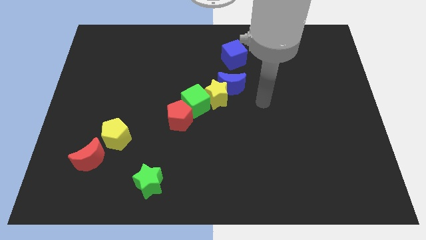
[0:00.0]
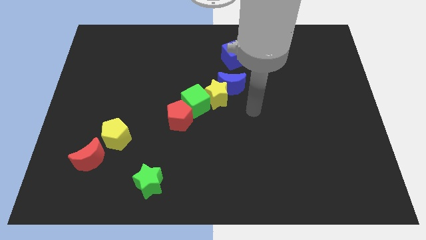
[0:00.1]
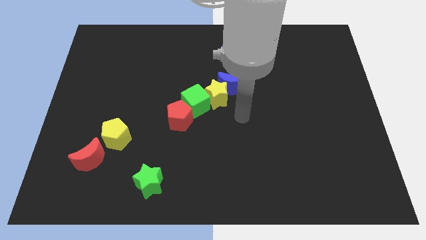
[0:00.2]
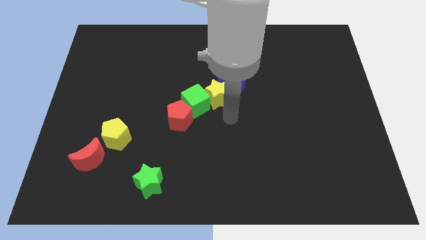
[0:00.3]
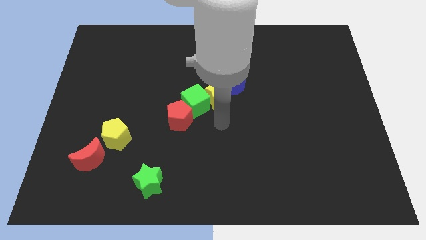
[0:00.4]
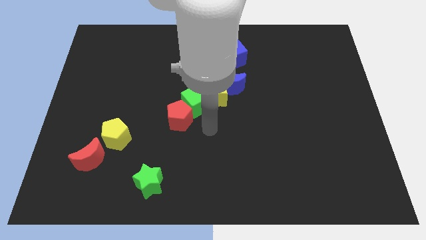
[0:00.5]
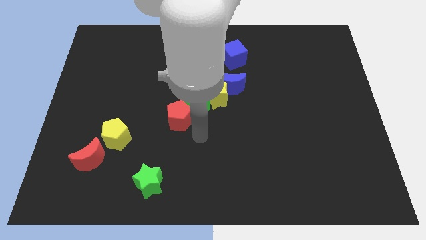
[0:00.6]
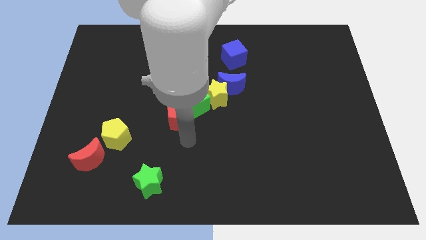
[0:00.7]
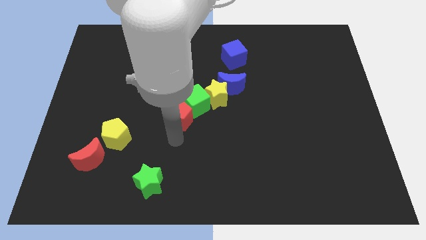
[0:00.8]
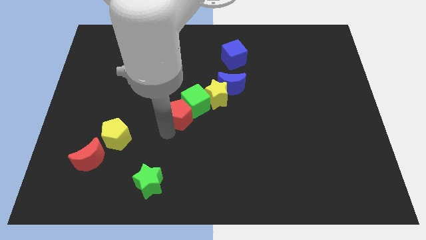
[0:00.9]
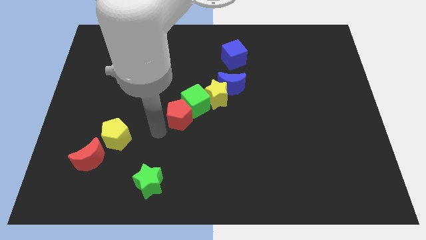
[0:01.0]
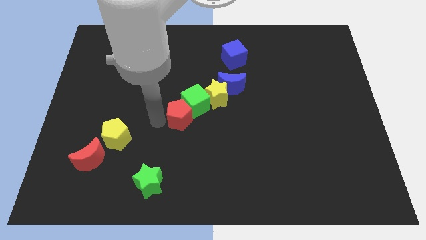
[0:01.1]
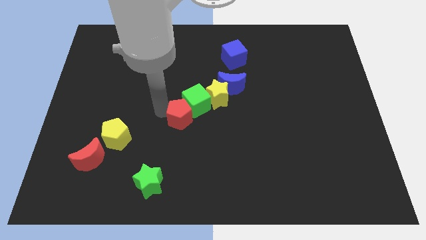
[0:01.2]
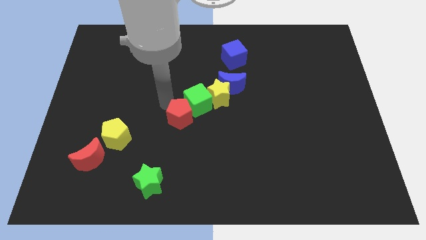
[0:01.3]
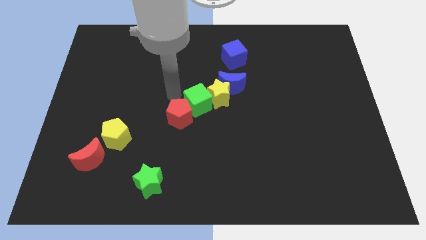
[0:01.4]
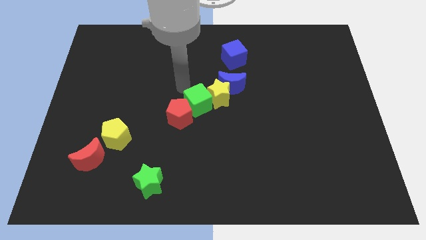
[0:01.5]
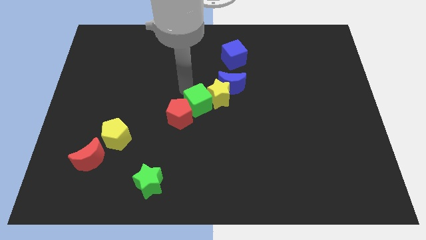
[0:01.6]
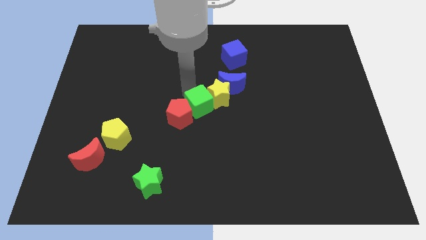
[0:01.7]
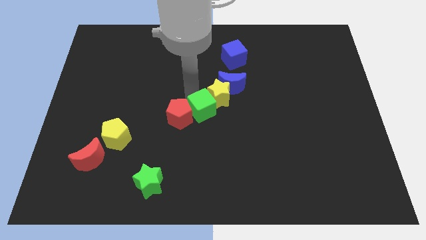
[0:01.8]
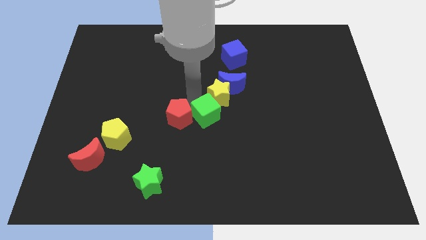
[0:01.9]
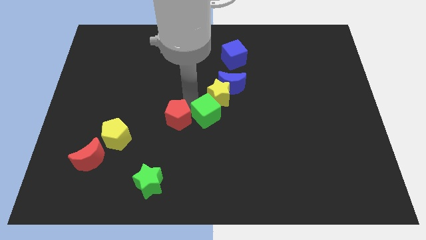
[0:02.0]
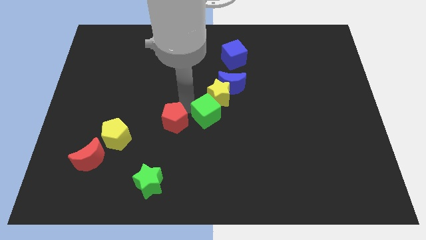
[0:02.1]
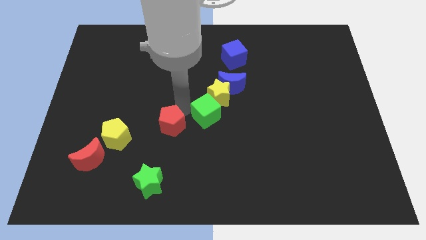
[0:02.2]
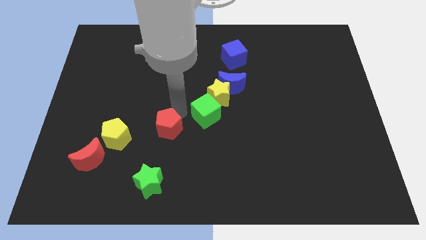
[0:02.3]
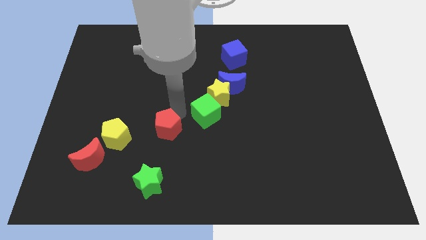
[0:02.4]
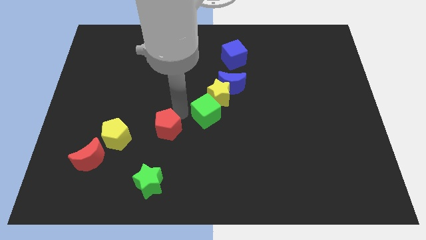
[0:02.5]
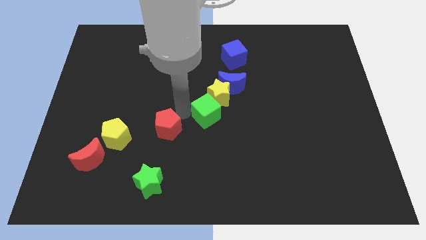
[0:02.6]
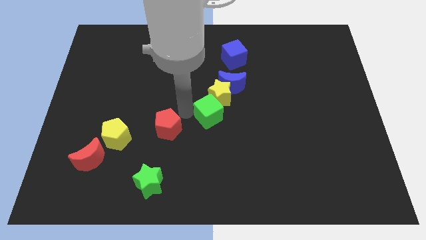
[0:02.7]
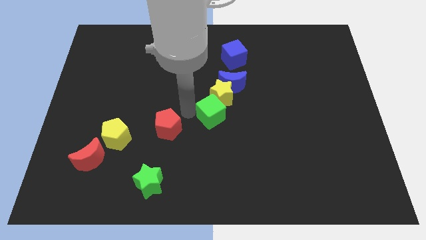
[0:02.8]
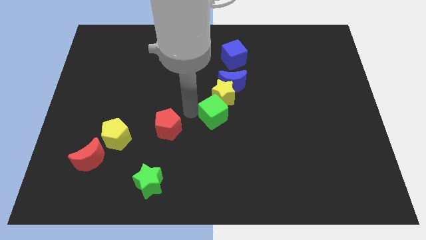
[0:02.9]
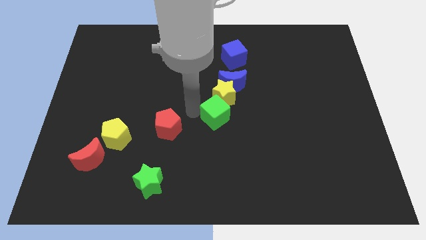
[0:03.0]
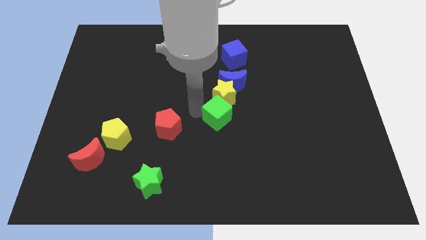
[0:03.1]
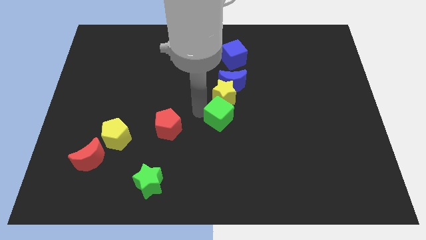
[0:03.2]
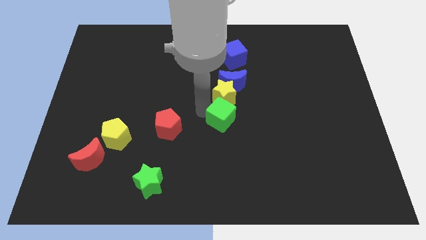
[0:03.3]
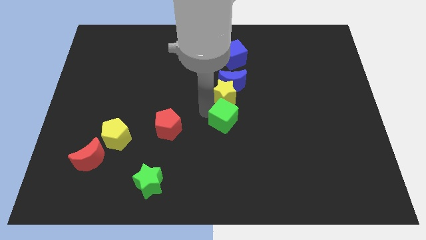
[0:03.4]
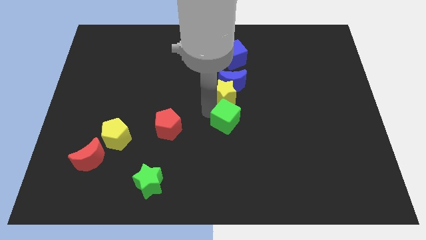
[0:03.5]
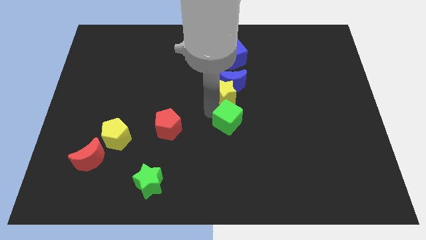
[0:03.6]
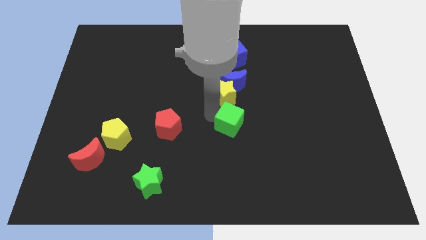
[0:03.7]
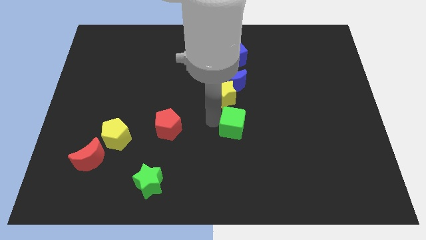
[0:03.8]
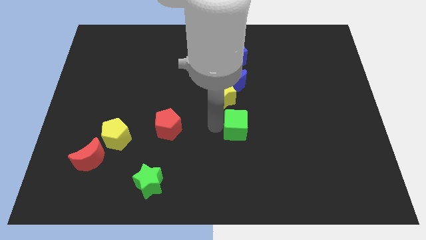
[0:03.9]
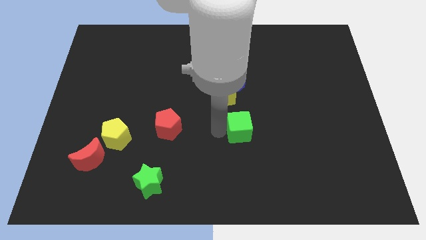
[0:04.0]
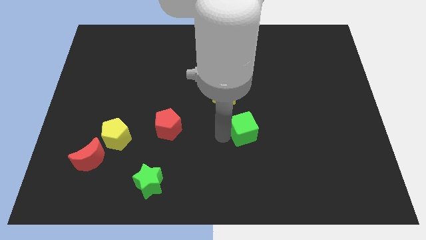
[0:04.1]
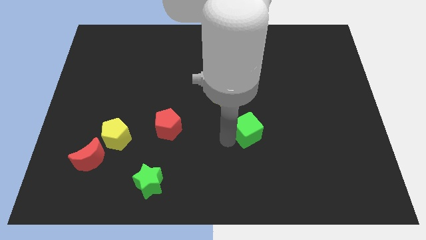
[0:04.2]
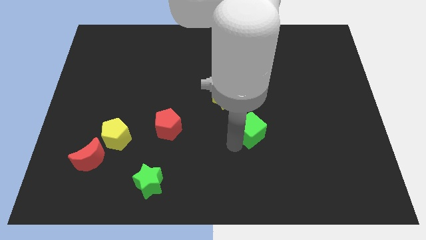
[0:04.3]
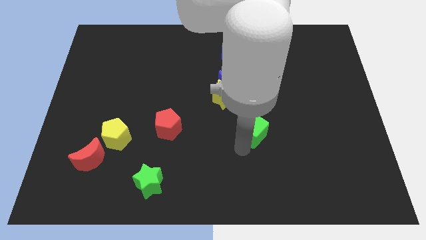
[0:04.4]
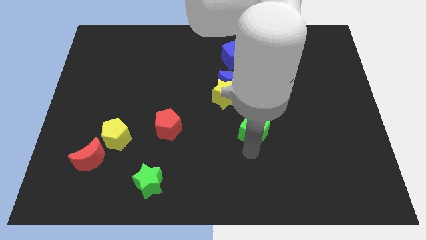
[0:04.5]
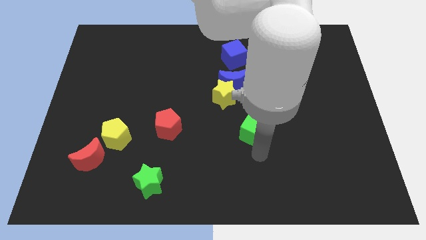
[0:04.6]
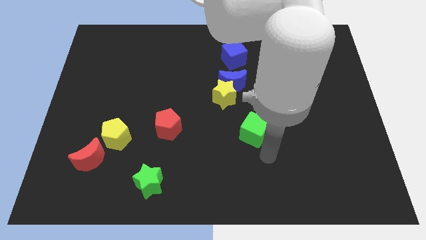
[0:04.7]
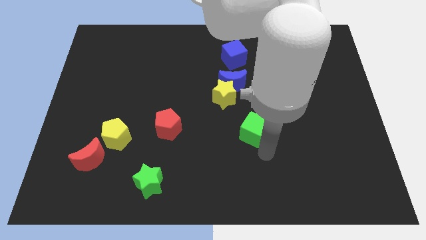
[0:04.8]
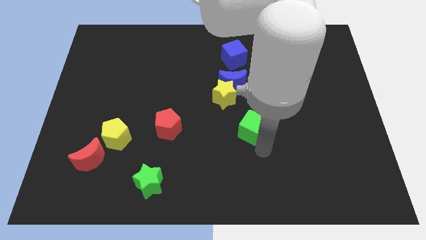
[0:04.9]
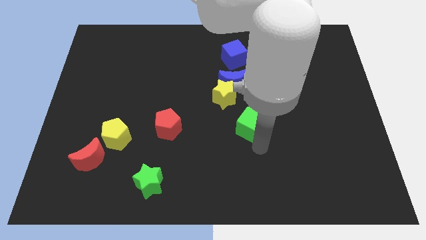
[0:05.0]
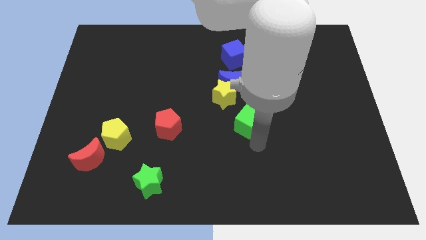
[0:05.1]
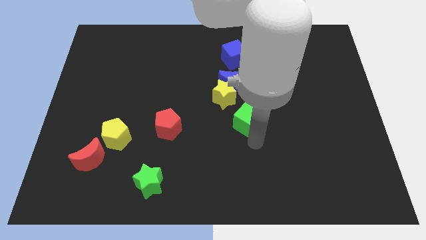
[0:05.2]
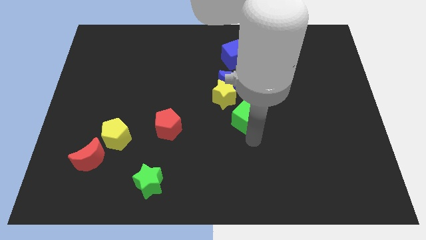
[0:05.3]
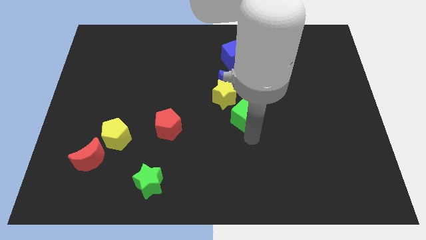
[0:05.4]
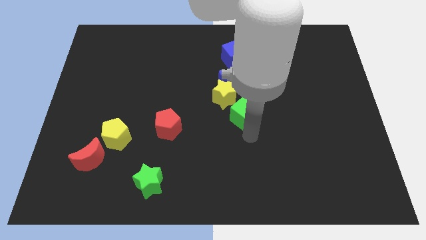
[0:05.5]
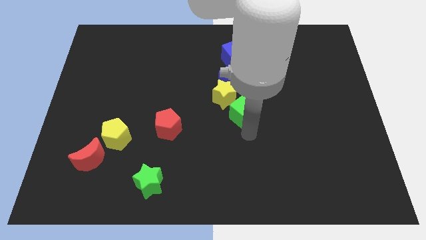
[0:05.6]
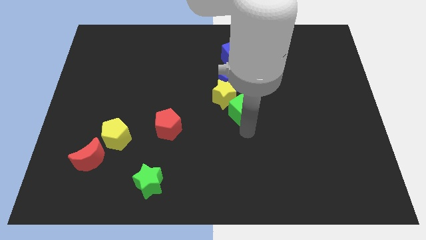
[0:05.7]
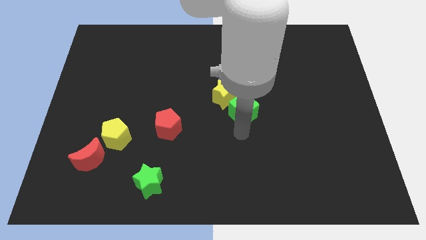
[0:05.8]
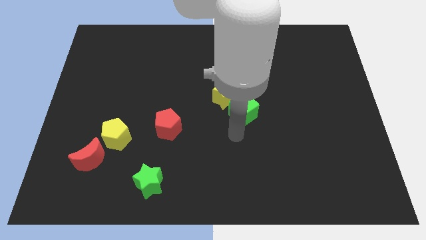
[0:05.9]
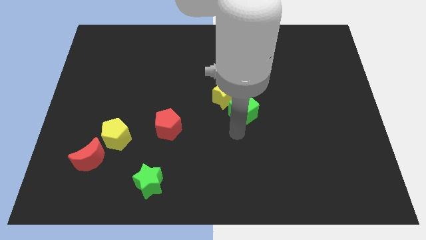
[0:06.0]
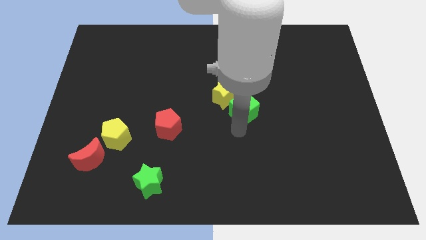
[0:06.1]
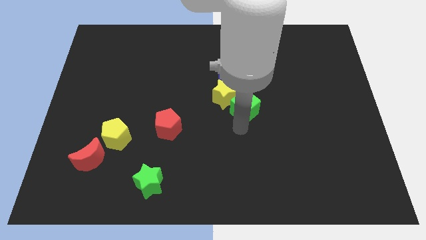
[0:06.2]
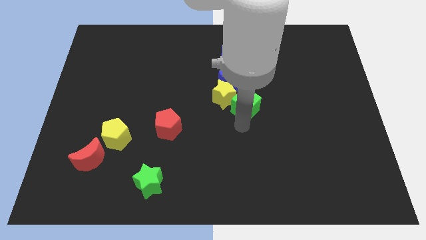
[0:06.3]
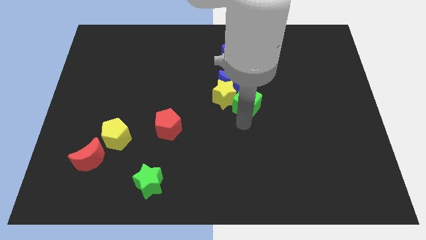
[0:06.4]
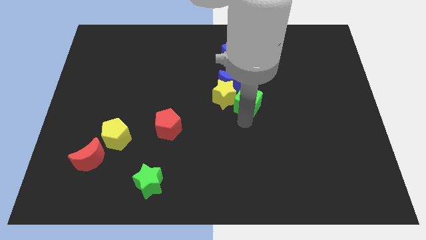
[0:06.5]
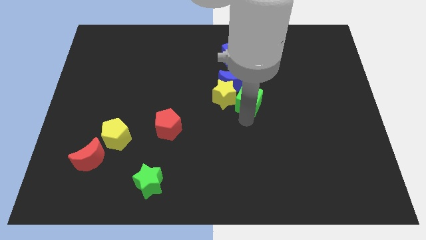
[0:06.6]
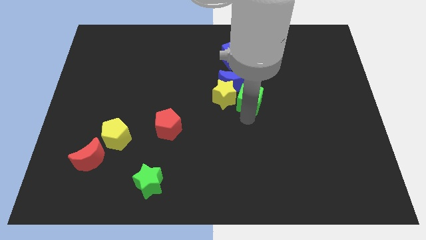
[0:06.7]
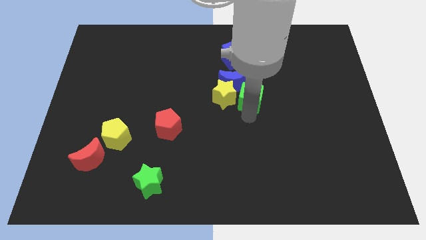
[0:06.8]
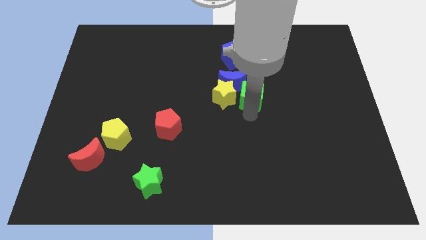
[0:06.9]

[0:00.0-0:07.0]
move the green cube to the top right of the yellow star
